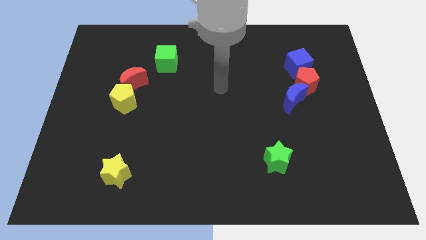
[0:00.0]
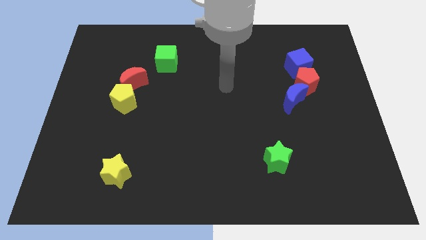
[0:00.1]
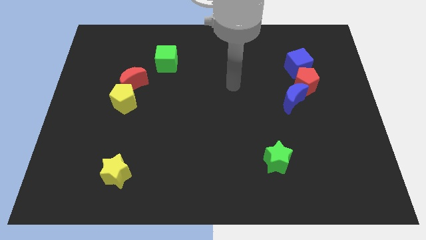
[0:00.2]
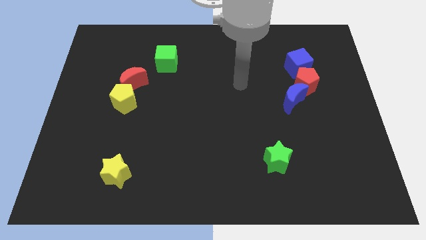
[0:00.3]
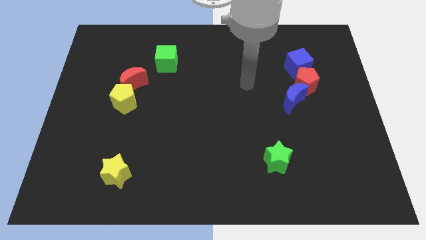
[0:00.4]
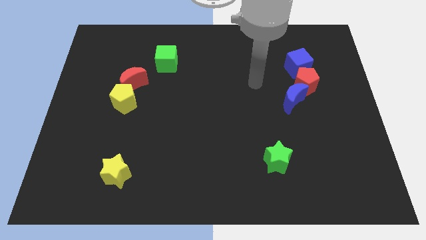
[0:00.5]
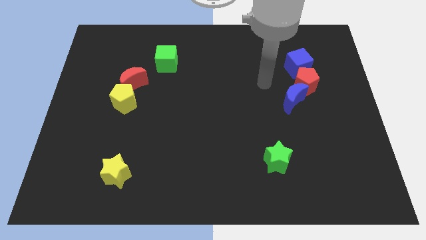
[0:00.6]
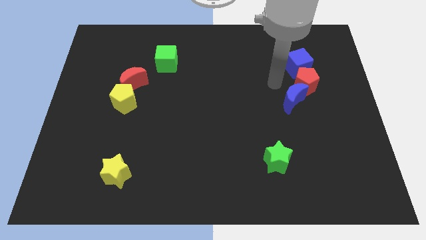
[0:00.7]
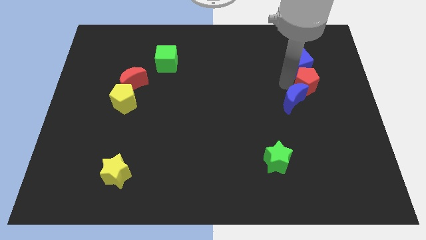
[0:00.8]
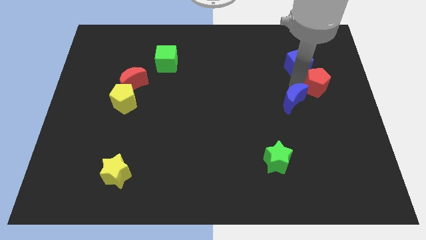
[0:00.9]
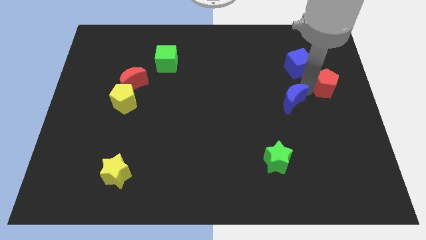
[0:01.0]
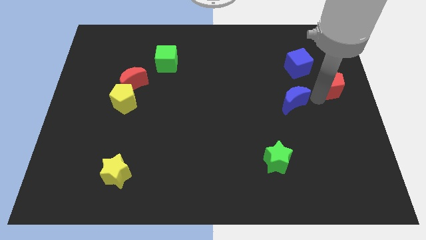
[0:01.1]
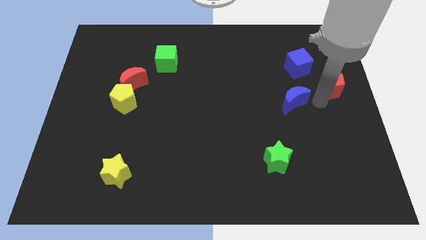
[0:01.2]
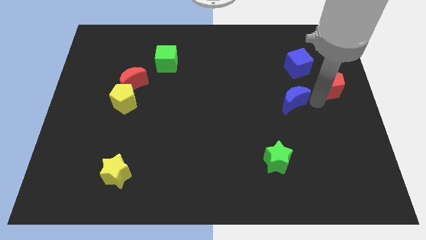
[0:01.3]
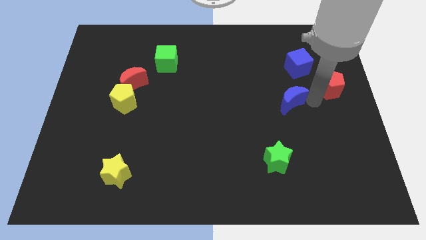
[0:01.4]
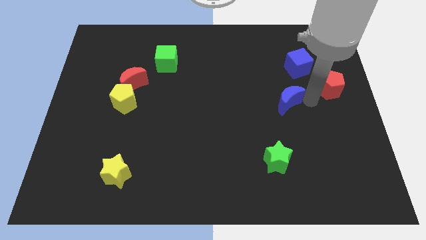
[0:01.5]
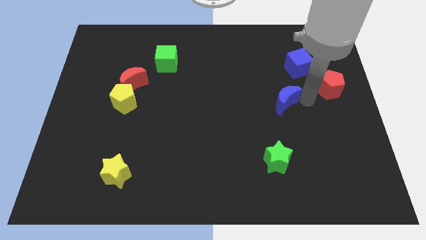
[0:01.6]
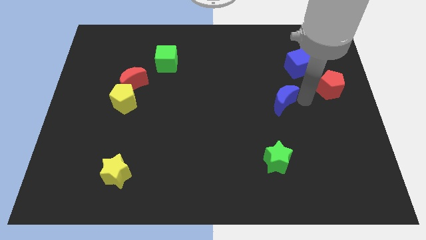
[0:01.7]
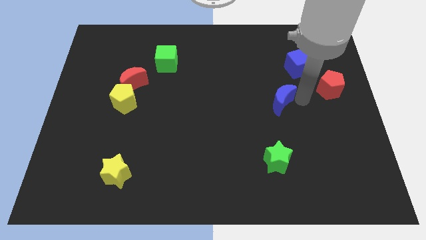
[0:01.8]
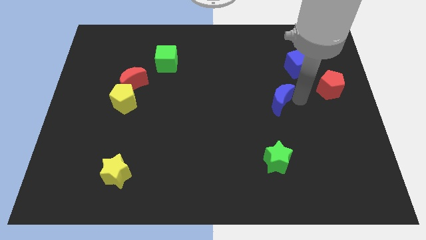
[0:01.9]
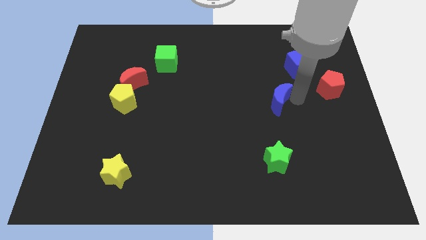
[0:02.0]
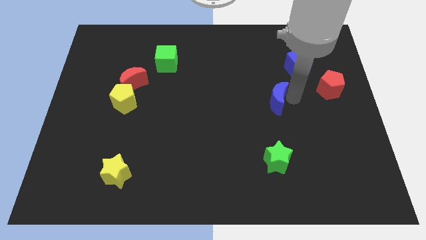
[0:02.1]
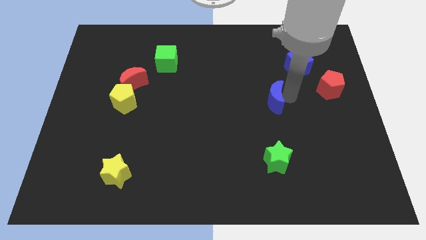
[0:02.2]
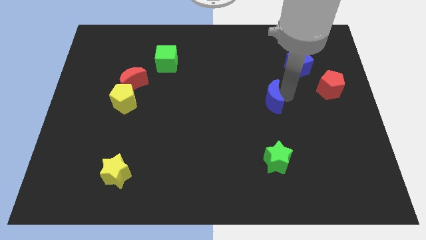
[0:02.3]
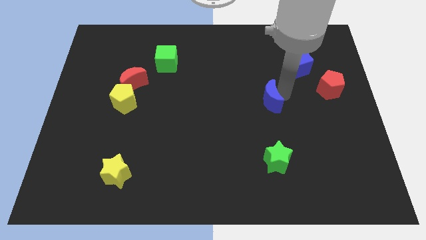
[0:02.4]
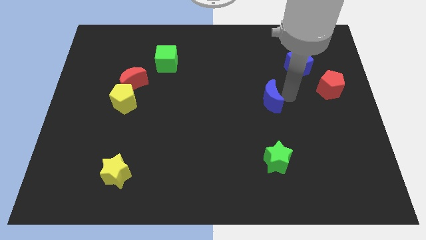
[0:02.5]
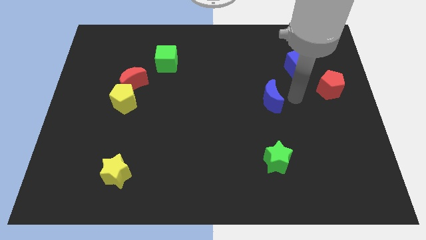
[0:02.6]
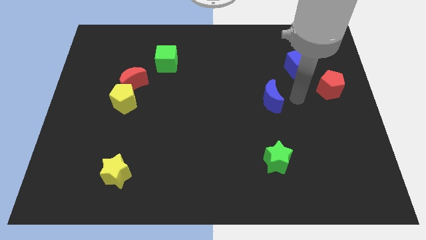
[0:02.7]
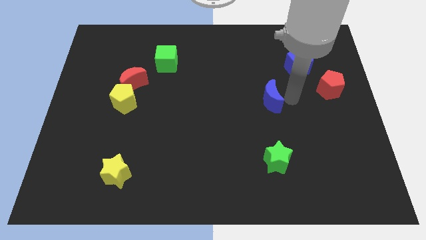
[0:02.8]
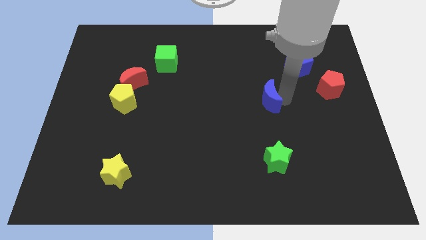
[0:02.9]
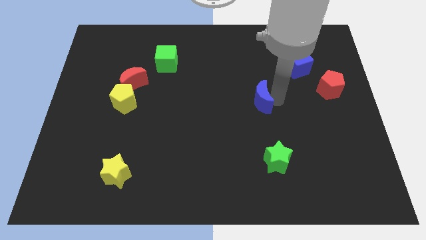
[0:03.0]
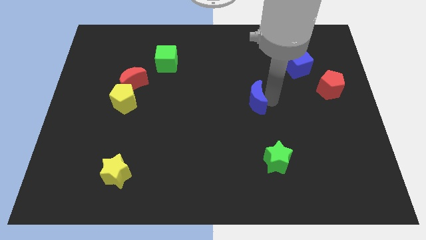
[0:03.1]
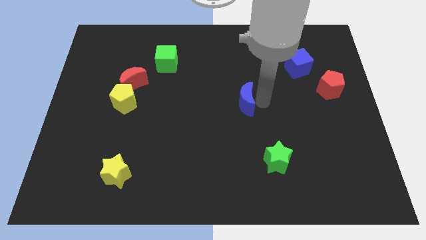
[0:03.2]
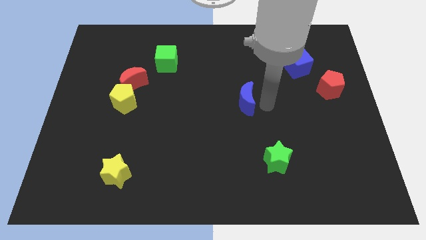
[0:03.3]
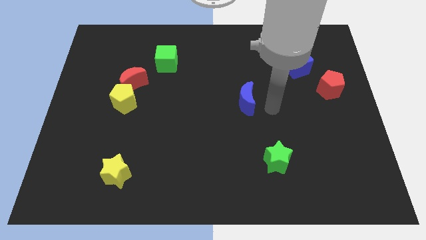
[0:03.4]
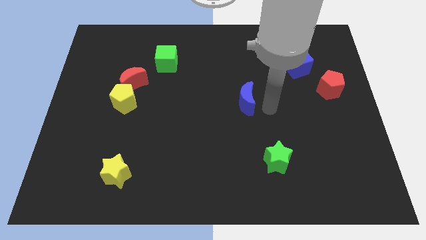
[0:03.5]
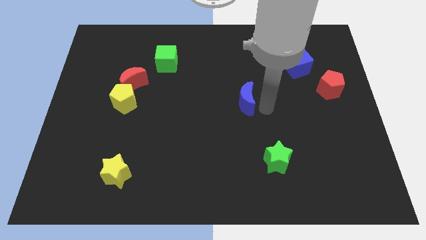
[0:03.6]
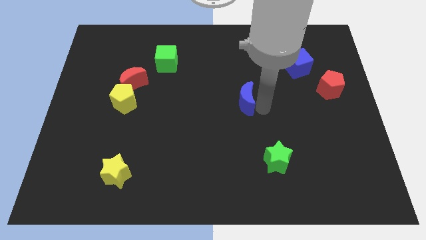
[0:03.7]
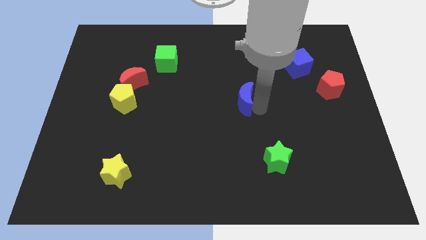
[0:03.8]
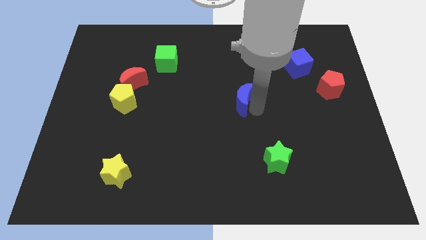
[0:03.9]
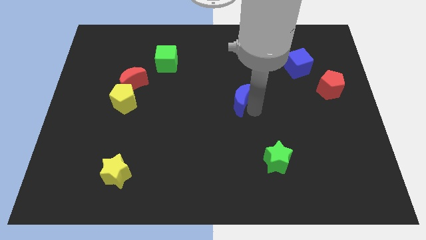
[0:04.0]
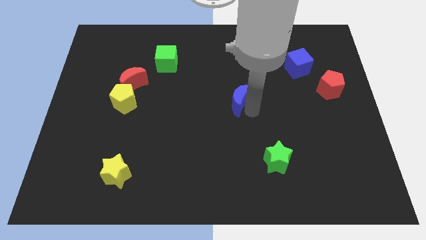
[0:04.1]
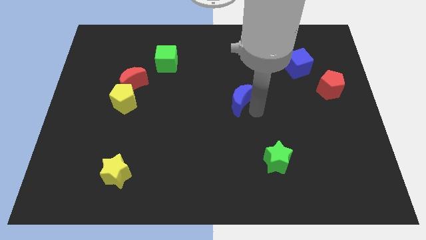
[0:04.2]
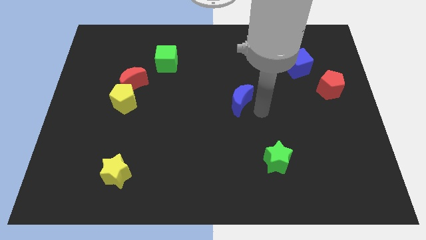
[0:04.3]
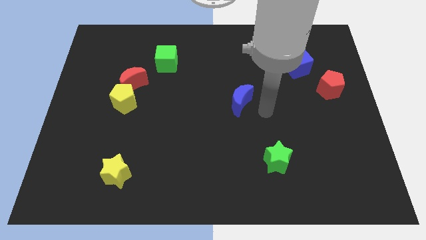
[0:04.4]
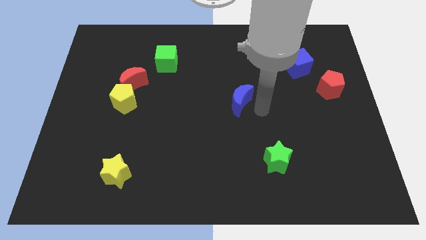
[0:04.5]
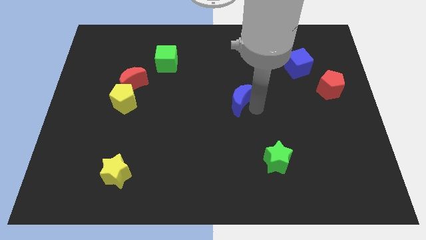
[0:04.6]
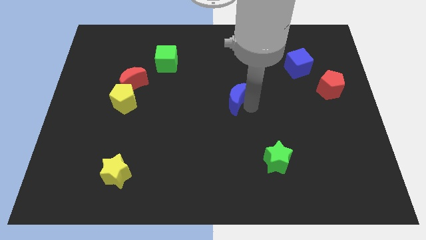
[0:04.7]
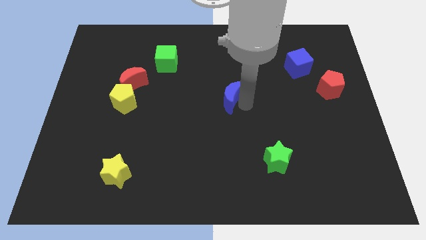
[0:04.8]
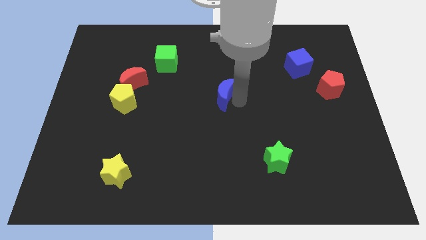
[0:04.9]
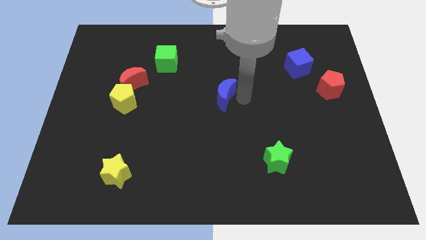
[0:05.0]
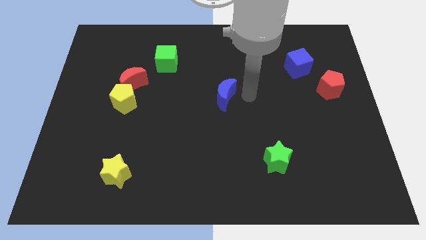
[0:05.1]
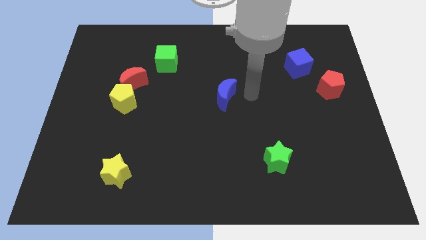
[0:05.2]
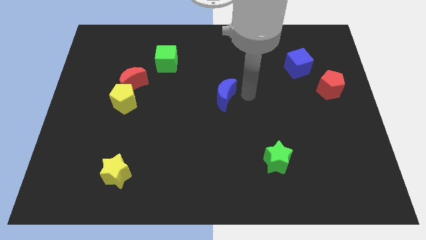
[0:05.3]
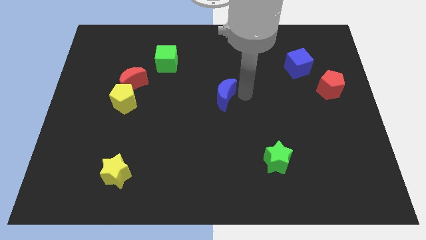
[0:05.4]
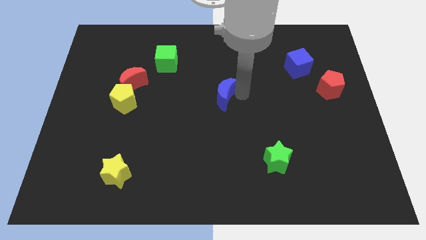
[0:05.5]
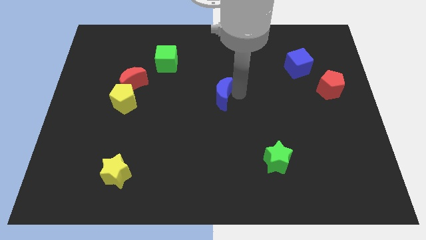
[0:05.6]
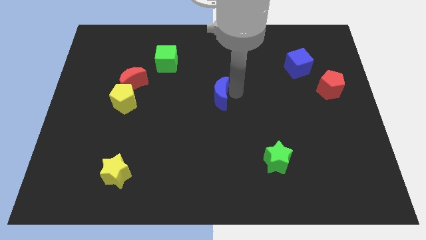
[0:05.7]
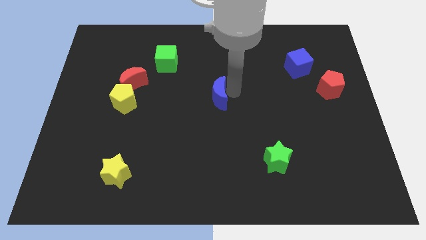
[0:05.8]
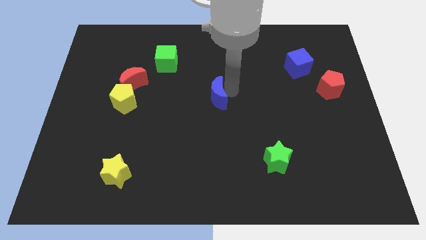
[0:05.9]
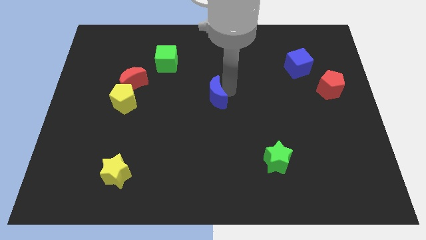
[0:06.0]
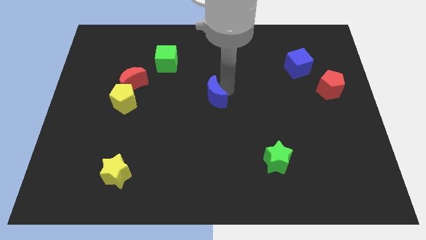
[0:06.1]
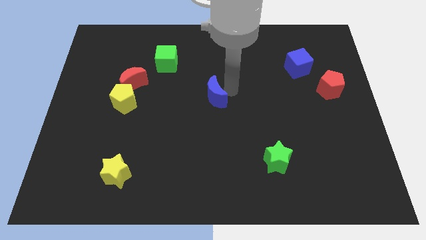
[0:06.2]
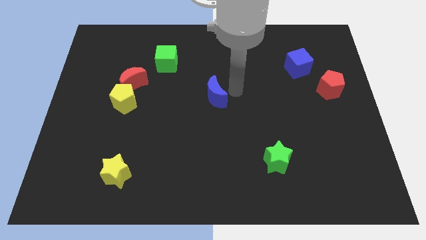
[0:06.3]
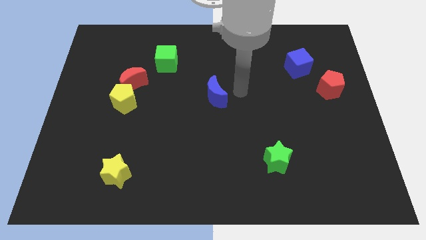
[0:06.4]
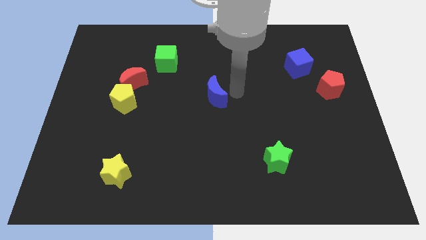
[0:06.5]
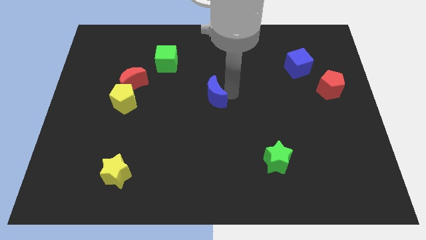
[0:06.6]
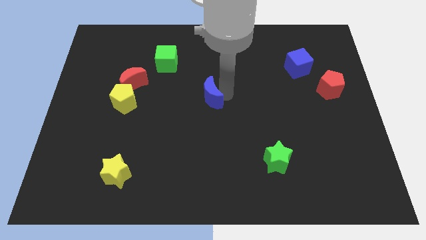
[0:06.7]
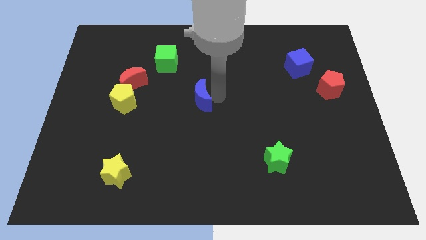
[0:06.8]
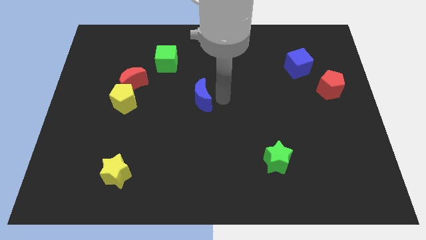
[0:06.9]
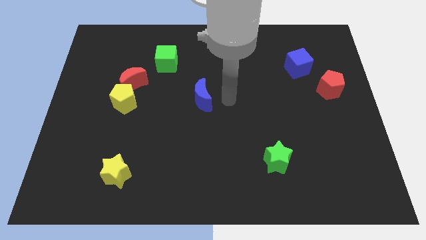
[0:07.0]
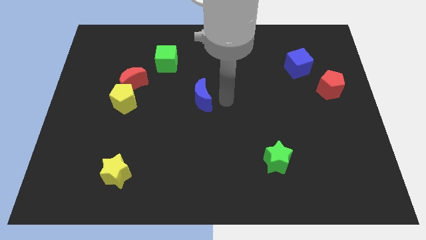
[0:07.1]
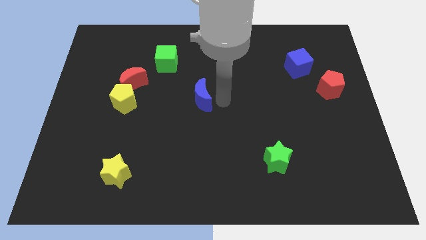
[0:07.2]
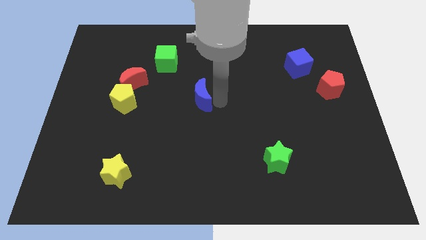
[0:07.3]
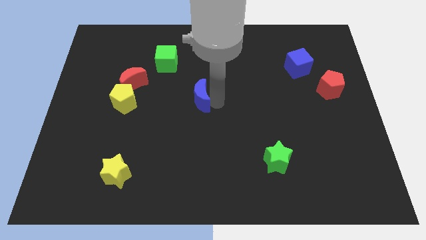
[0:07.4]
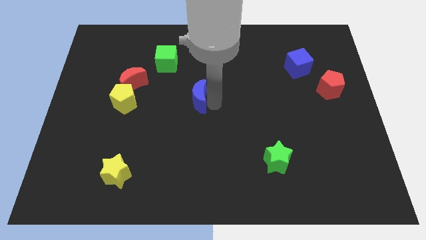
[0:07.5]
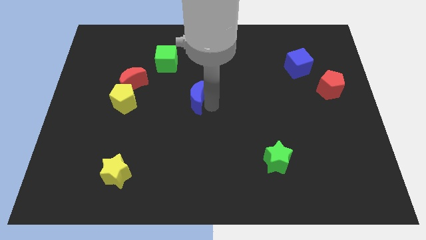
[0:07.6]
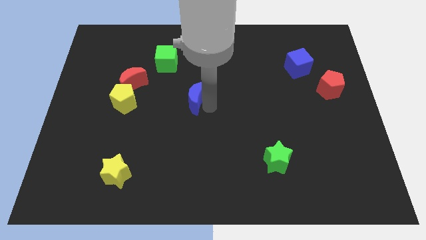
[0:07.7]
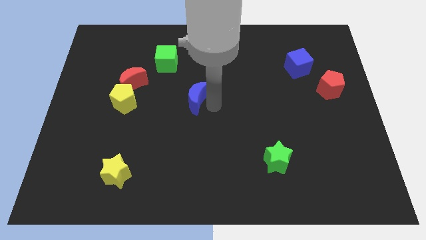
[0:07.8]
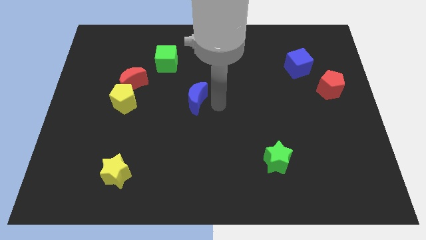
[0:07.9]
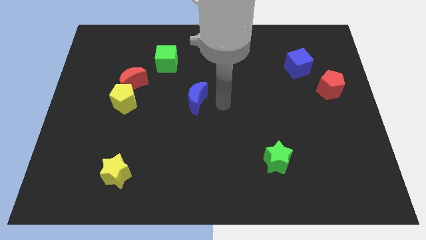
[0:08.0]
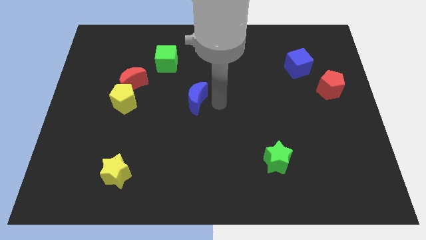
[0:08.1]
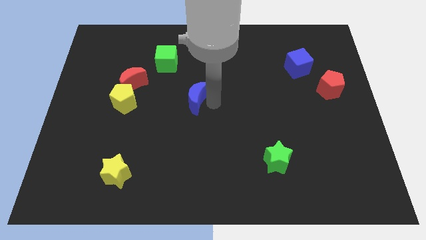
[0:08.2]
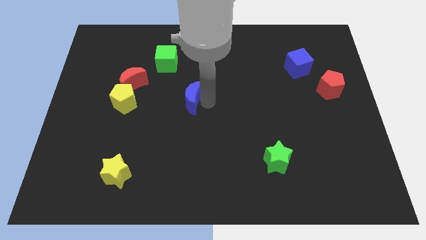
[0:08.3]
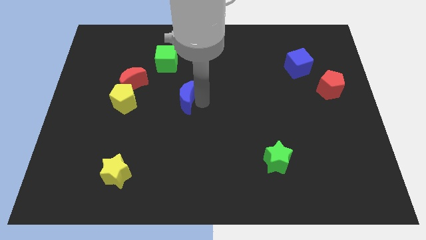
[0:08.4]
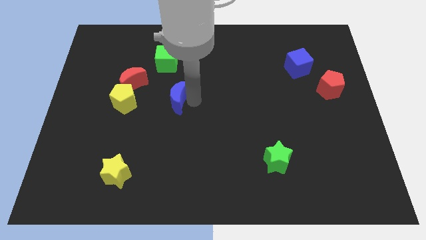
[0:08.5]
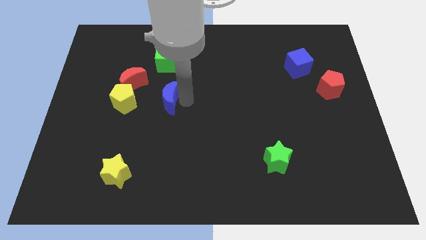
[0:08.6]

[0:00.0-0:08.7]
put the blue moon to the bottom right of the red moon
